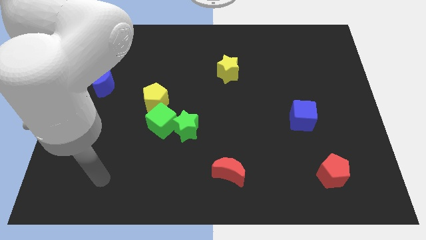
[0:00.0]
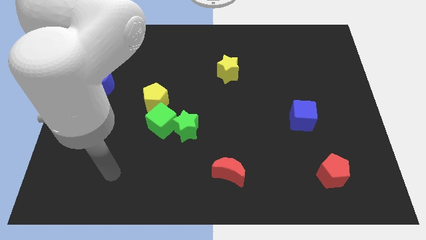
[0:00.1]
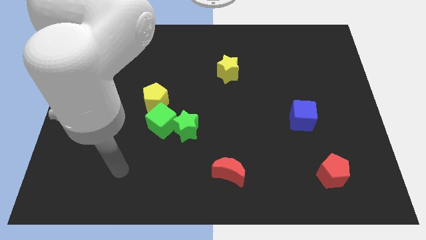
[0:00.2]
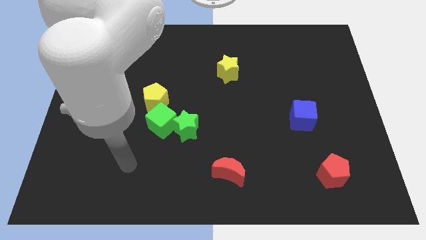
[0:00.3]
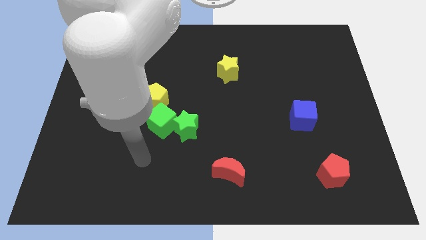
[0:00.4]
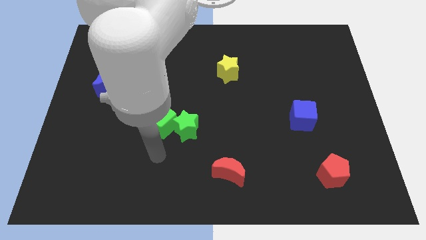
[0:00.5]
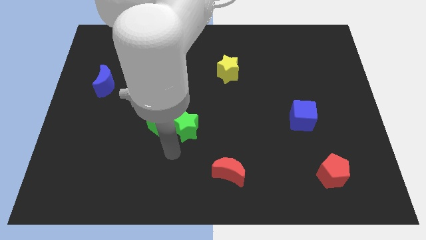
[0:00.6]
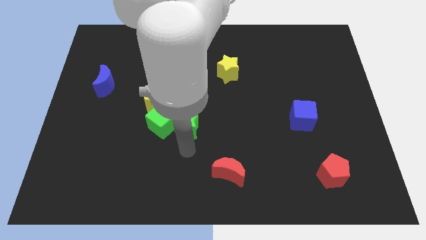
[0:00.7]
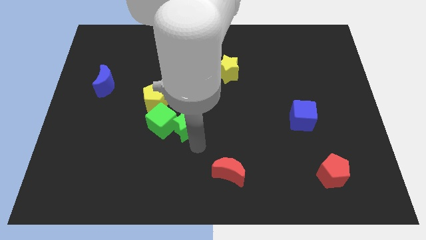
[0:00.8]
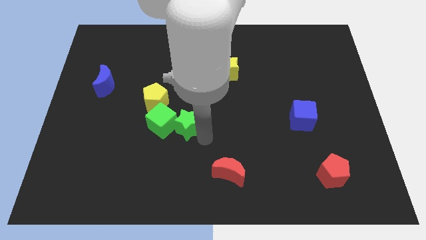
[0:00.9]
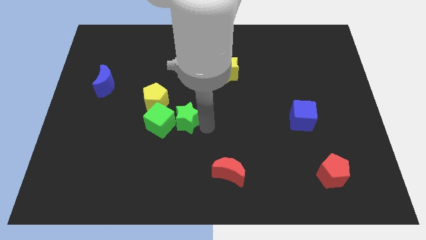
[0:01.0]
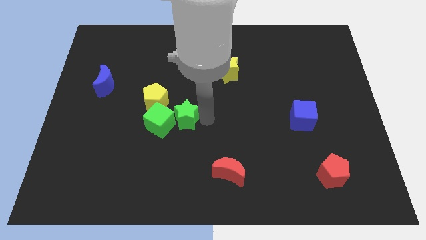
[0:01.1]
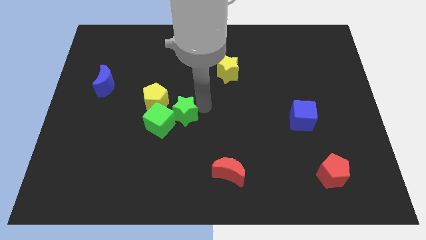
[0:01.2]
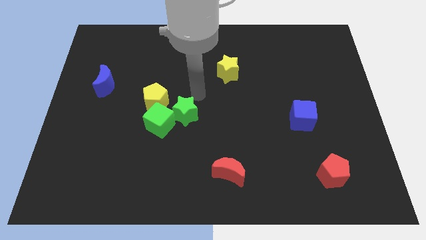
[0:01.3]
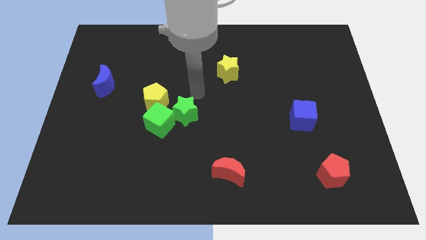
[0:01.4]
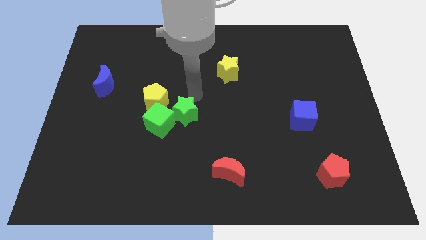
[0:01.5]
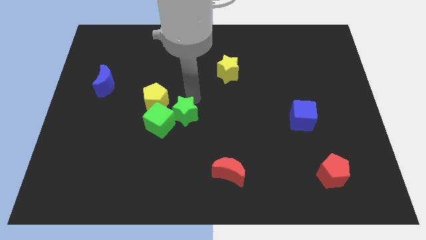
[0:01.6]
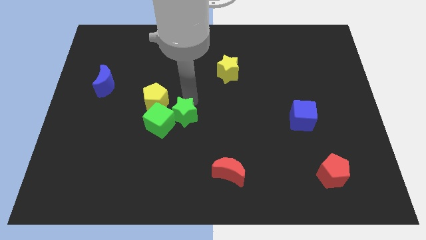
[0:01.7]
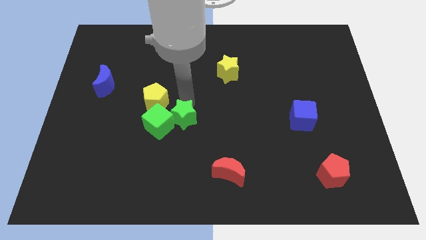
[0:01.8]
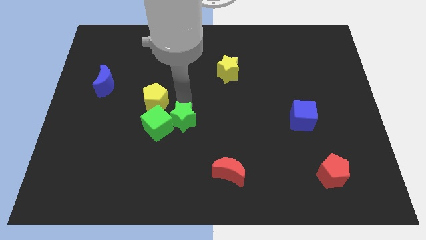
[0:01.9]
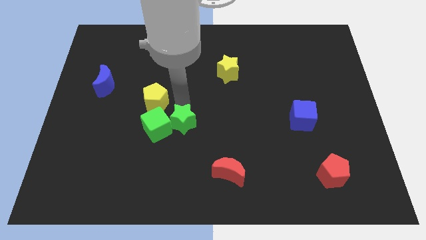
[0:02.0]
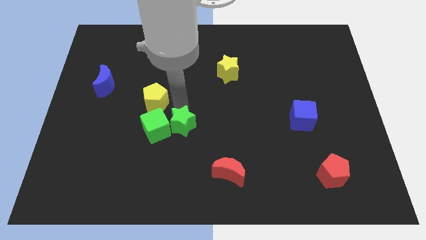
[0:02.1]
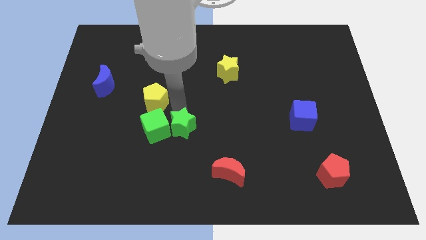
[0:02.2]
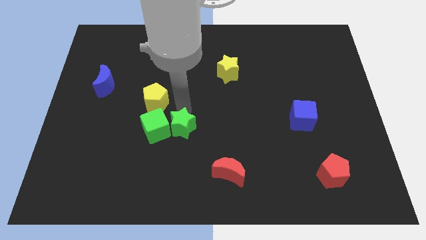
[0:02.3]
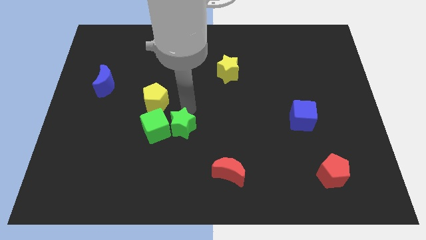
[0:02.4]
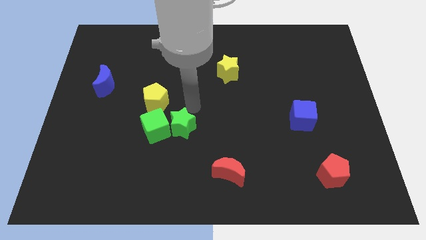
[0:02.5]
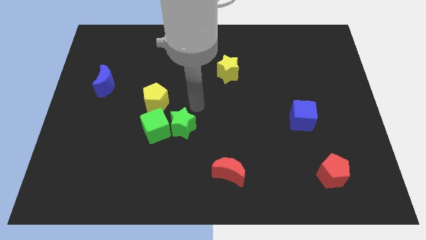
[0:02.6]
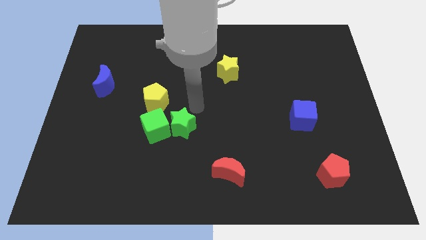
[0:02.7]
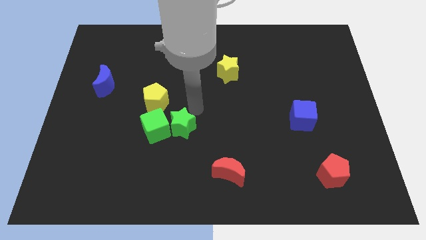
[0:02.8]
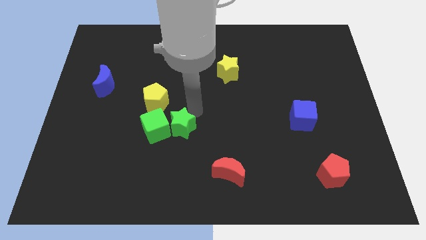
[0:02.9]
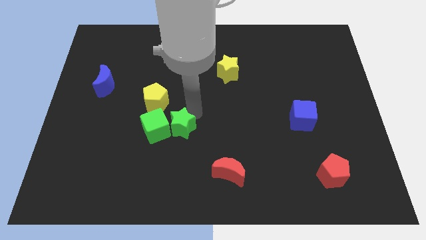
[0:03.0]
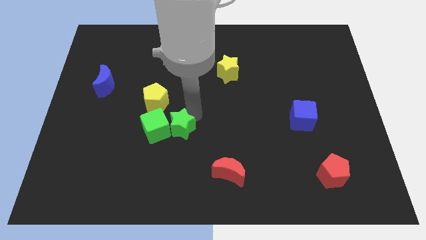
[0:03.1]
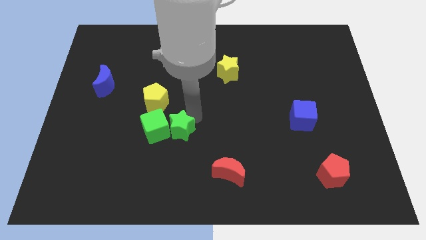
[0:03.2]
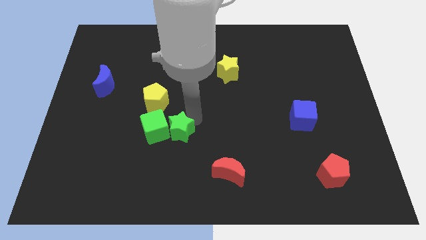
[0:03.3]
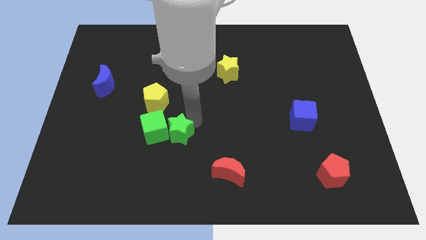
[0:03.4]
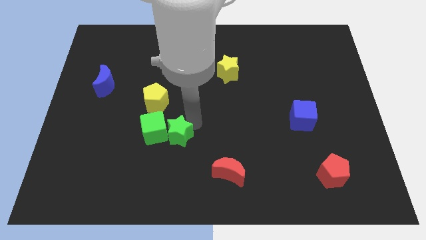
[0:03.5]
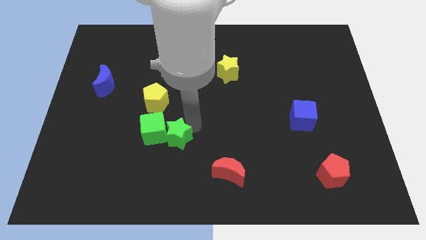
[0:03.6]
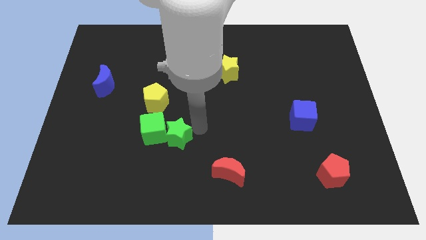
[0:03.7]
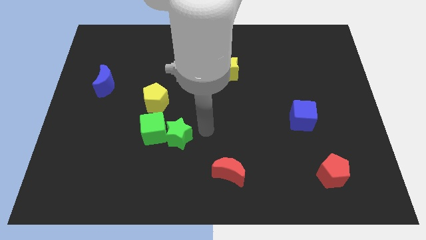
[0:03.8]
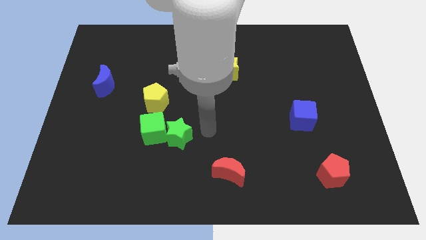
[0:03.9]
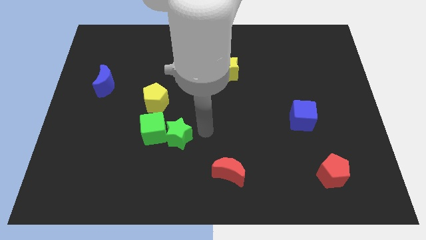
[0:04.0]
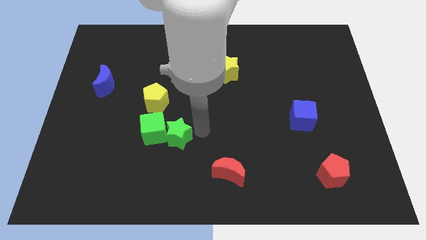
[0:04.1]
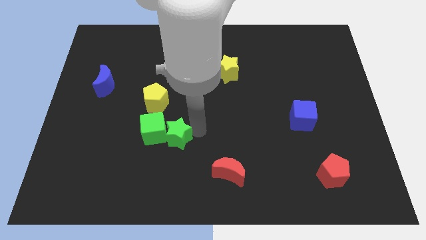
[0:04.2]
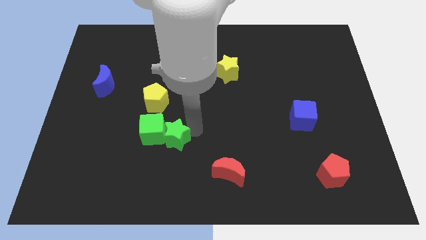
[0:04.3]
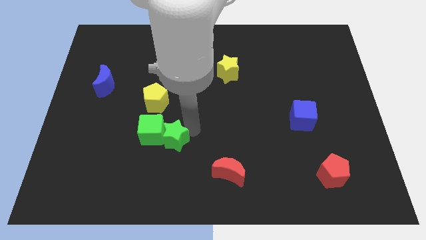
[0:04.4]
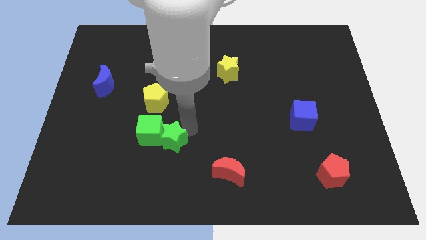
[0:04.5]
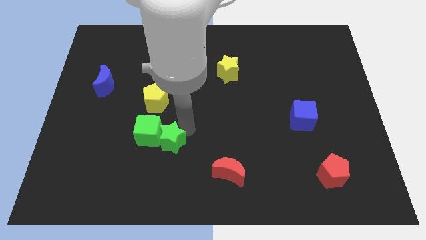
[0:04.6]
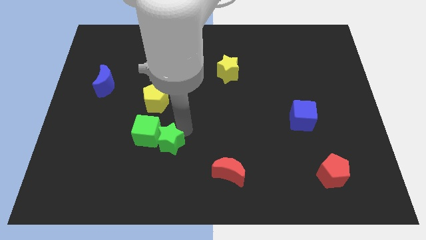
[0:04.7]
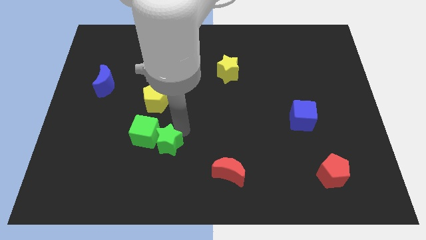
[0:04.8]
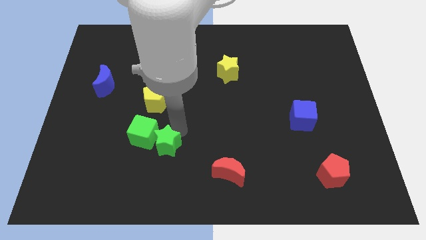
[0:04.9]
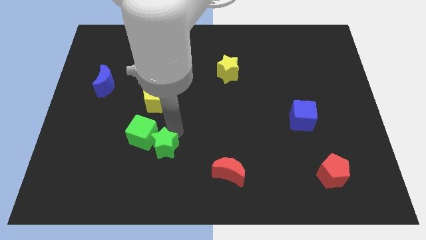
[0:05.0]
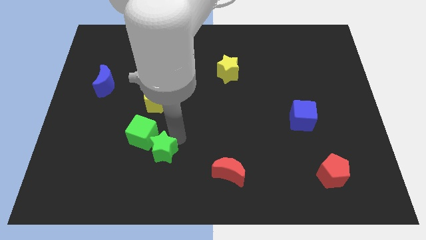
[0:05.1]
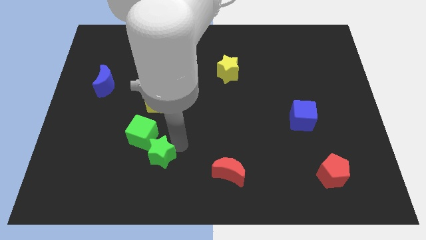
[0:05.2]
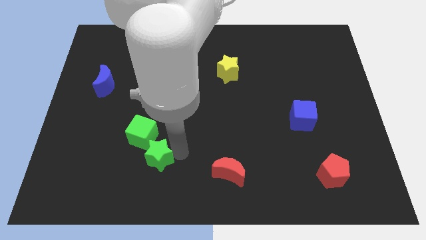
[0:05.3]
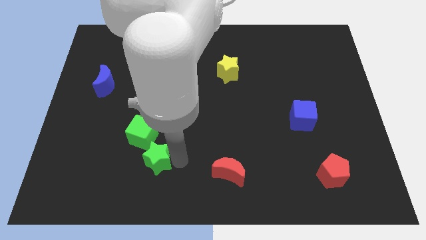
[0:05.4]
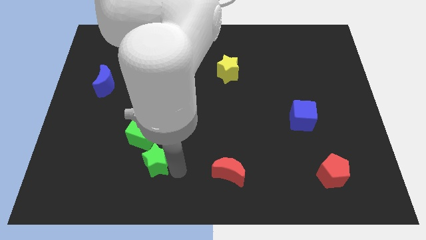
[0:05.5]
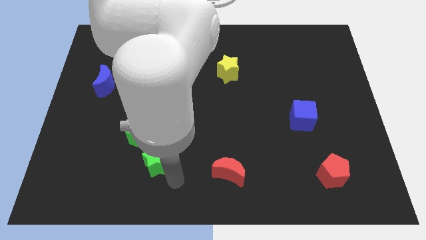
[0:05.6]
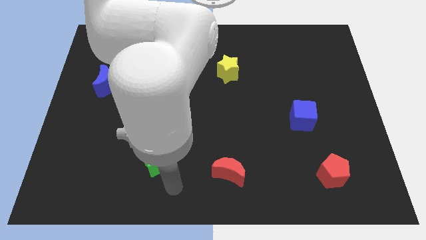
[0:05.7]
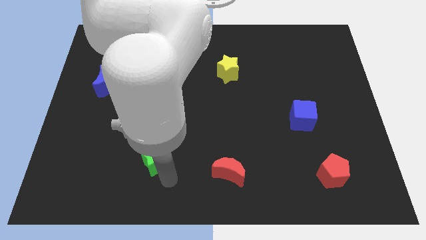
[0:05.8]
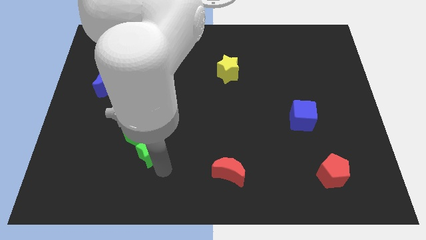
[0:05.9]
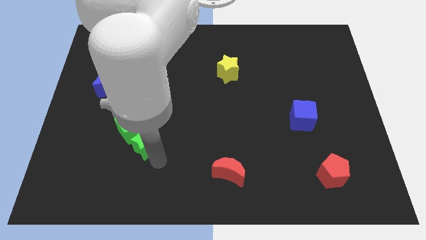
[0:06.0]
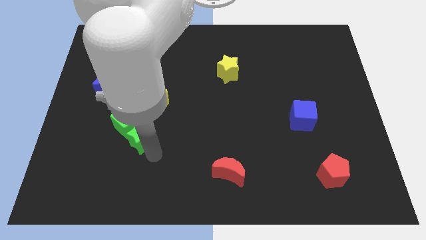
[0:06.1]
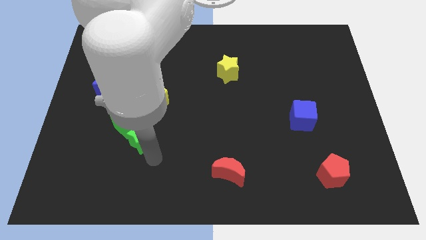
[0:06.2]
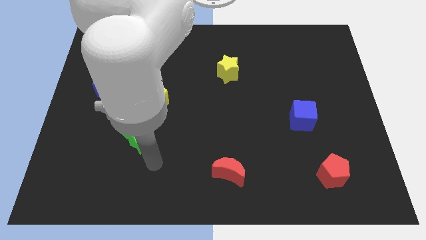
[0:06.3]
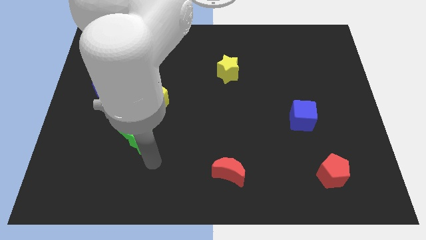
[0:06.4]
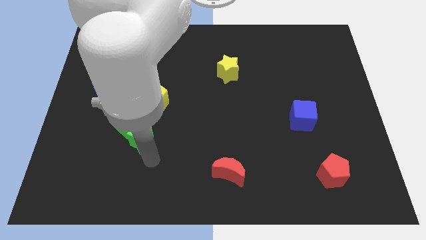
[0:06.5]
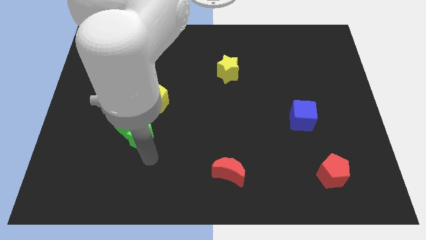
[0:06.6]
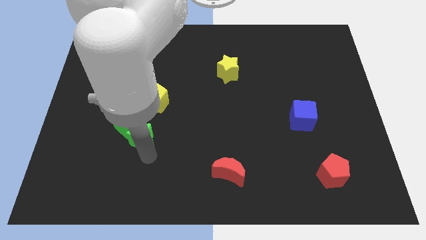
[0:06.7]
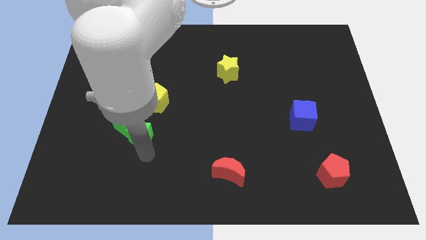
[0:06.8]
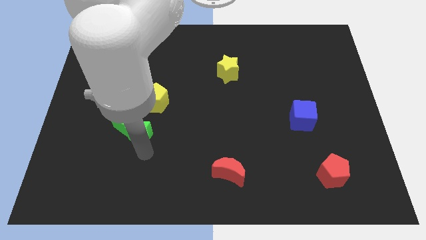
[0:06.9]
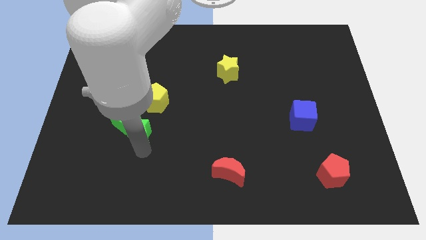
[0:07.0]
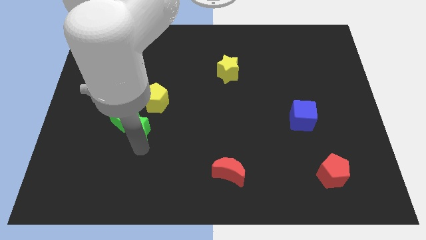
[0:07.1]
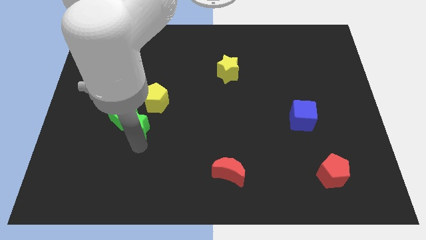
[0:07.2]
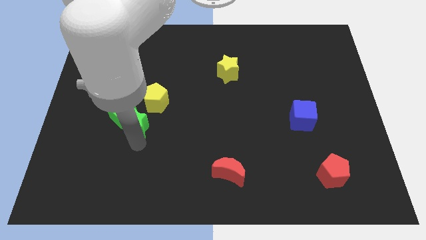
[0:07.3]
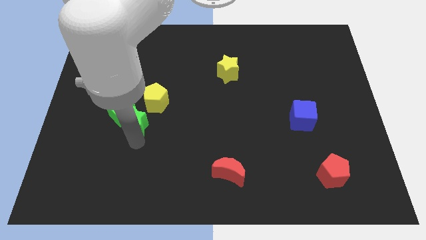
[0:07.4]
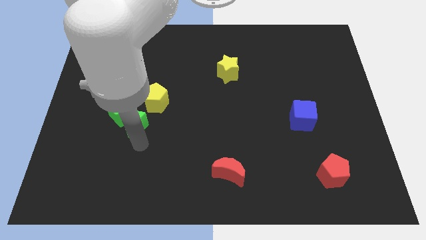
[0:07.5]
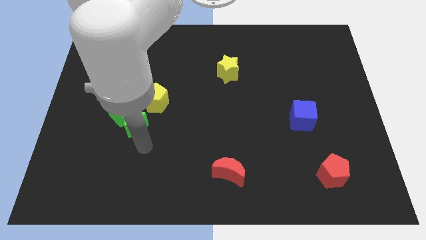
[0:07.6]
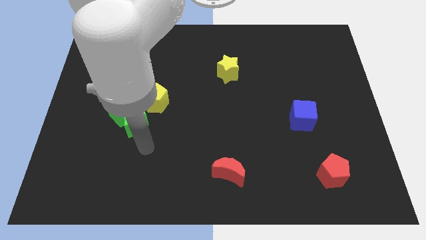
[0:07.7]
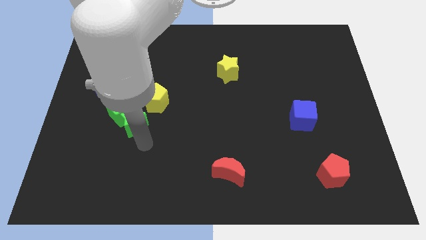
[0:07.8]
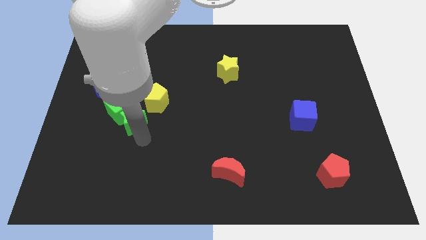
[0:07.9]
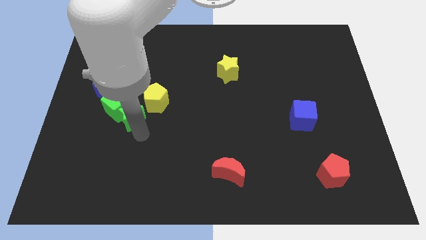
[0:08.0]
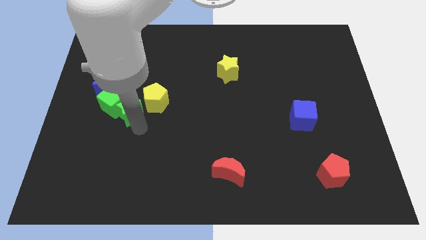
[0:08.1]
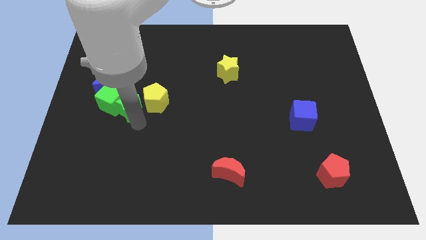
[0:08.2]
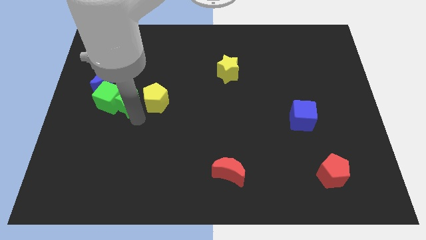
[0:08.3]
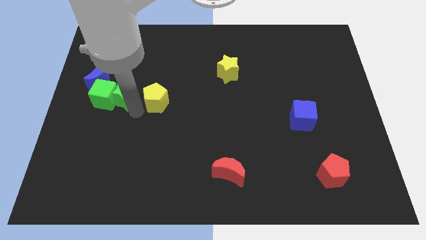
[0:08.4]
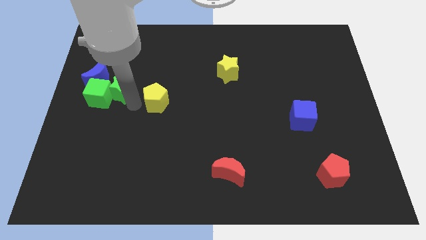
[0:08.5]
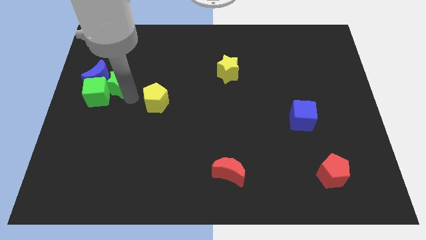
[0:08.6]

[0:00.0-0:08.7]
move the green star close to the blue moon
